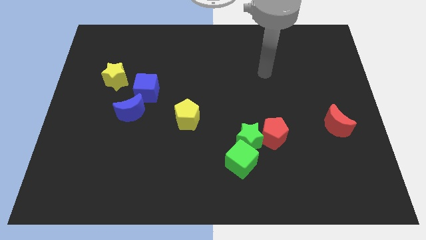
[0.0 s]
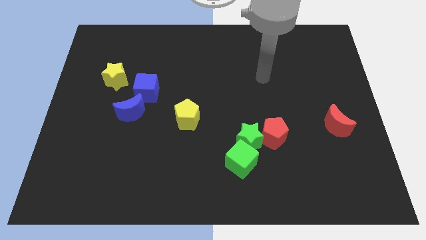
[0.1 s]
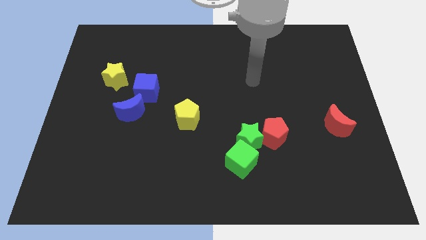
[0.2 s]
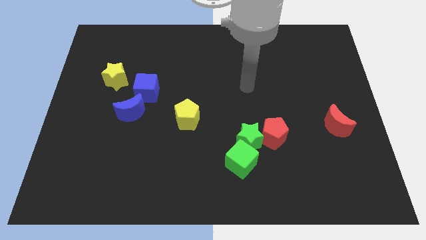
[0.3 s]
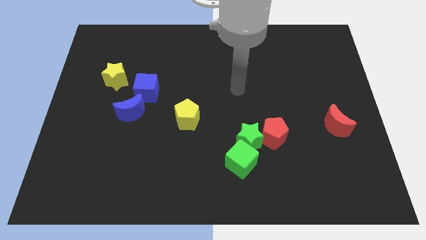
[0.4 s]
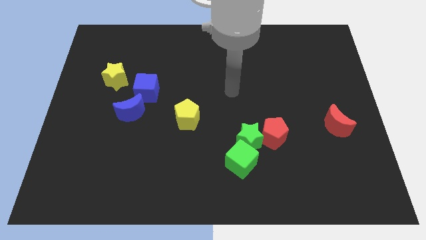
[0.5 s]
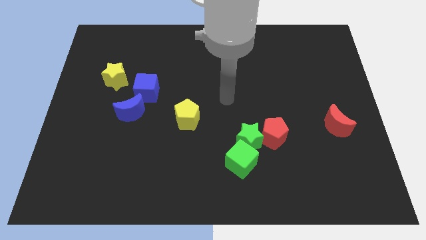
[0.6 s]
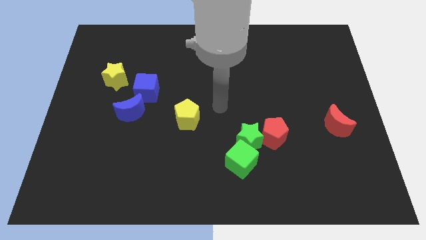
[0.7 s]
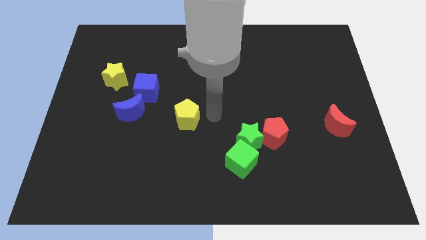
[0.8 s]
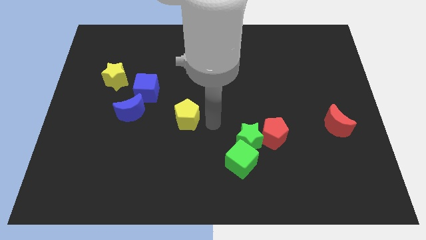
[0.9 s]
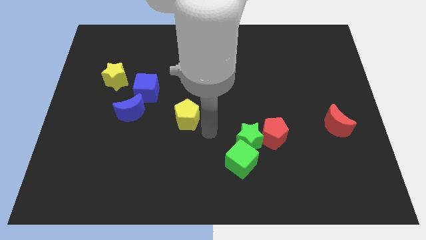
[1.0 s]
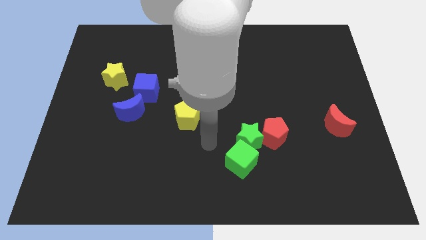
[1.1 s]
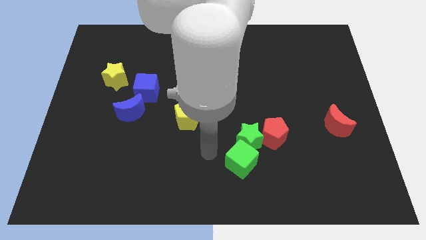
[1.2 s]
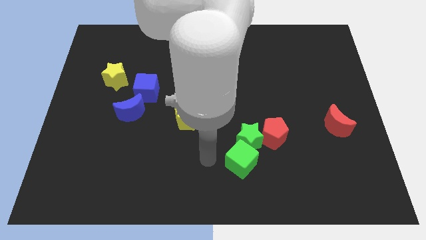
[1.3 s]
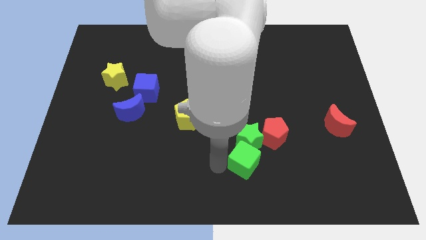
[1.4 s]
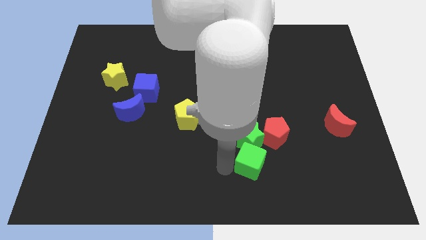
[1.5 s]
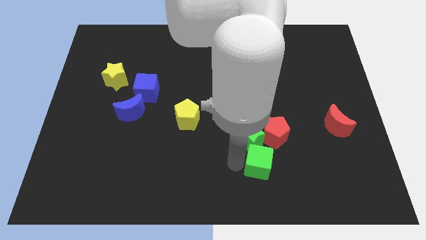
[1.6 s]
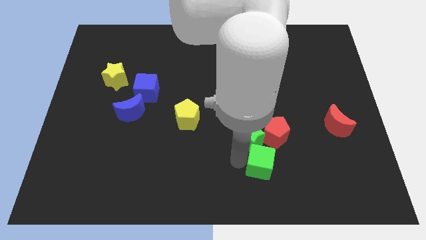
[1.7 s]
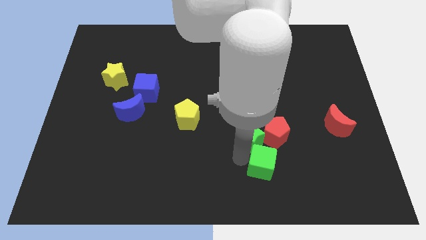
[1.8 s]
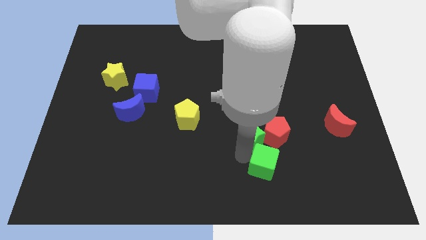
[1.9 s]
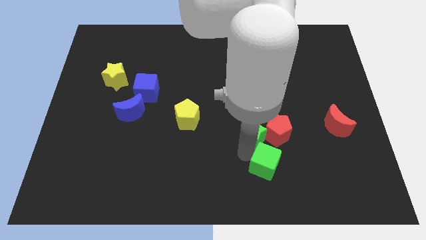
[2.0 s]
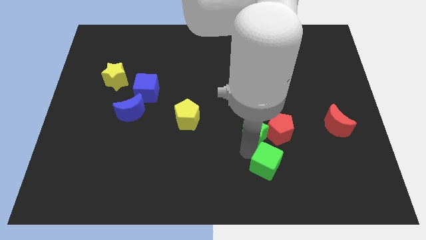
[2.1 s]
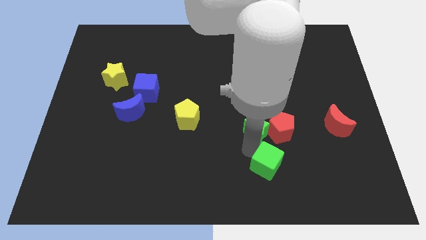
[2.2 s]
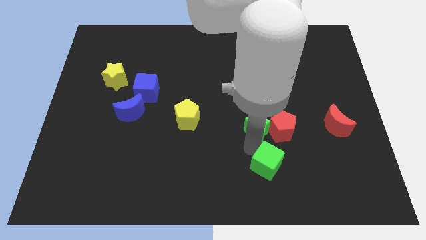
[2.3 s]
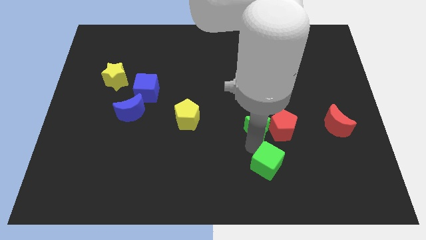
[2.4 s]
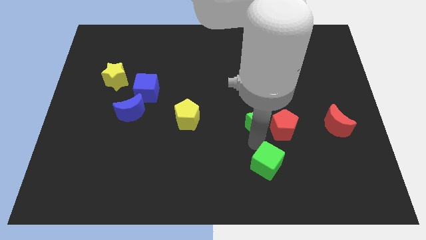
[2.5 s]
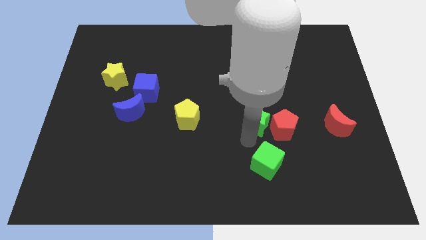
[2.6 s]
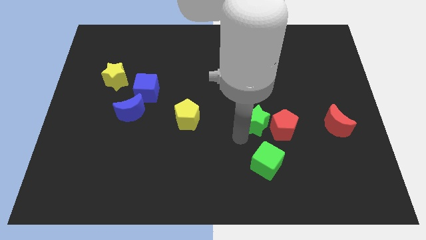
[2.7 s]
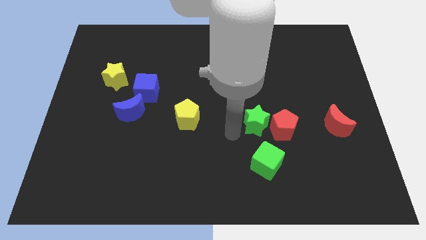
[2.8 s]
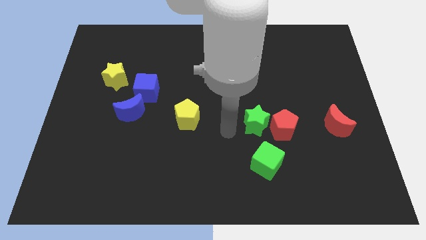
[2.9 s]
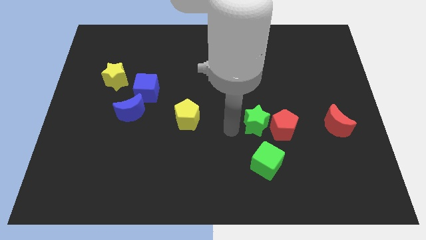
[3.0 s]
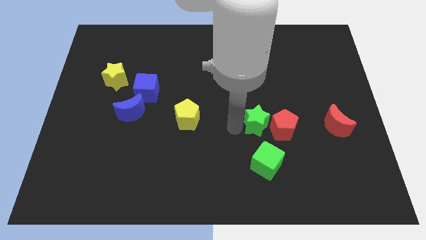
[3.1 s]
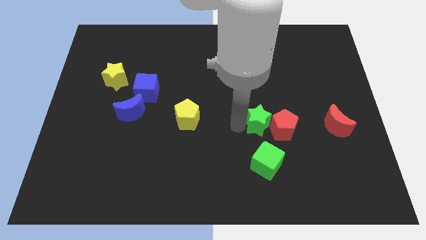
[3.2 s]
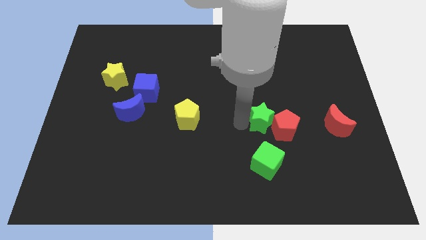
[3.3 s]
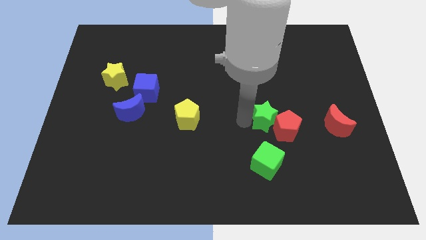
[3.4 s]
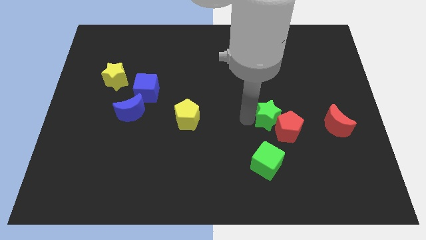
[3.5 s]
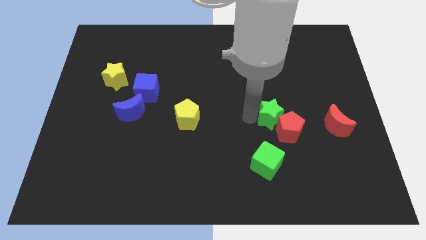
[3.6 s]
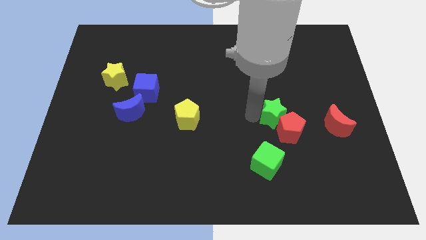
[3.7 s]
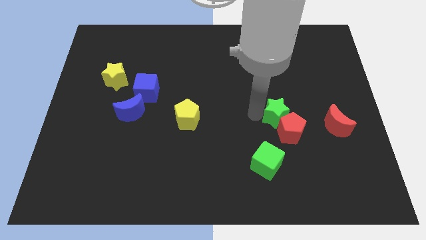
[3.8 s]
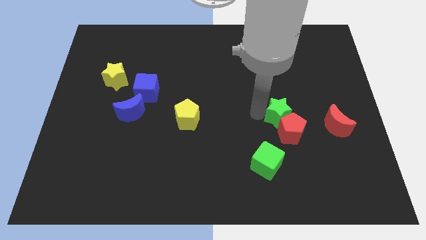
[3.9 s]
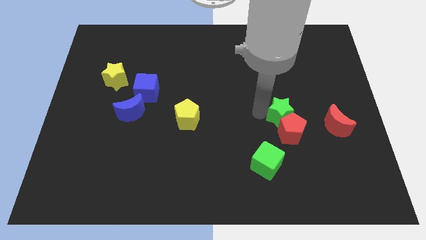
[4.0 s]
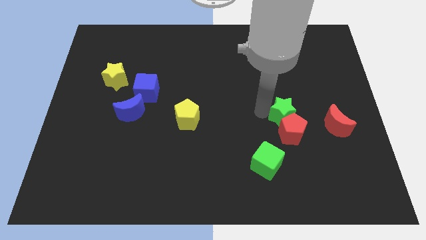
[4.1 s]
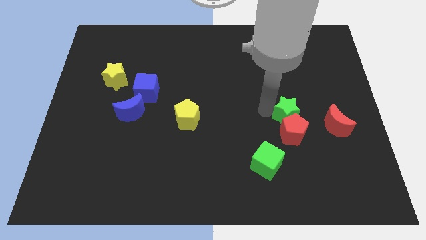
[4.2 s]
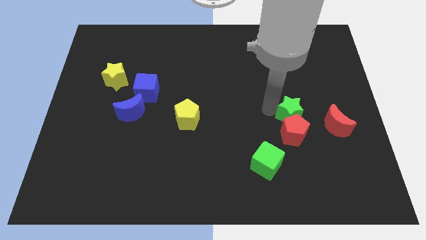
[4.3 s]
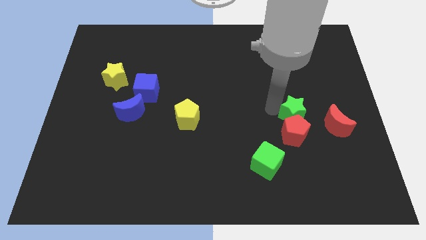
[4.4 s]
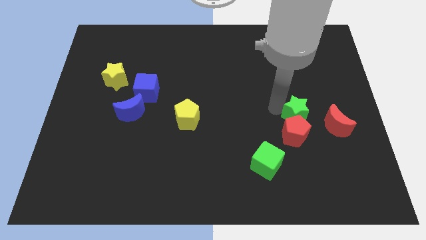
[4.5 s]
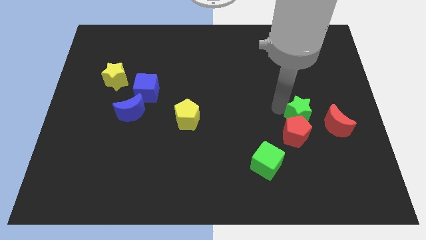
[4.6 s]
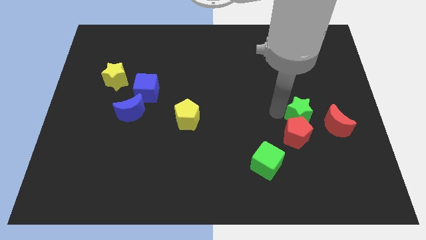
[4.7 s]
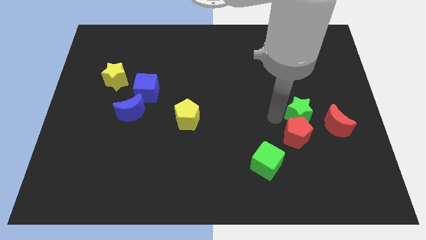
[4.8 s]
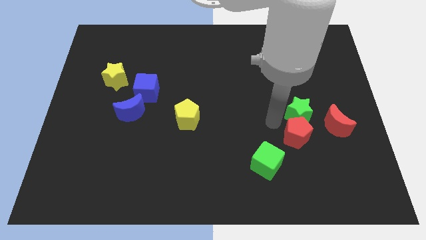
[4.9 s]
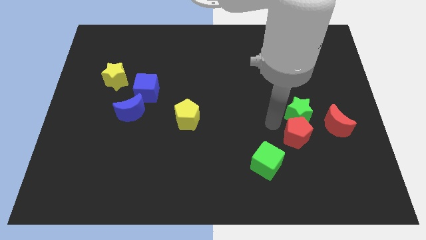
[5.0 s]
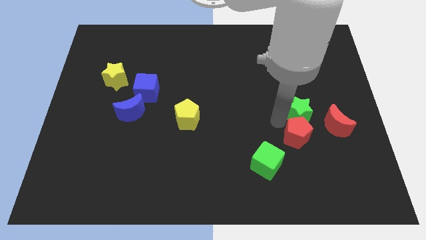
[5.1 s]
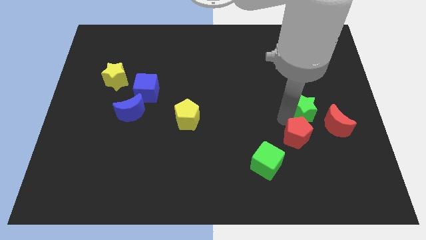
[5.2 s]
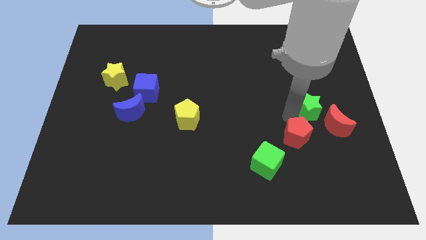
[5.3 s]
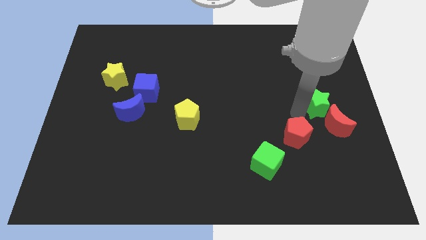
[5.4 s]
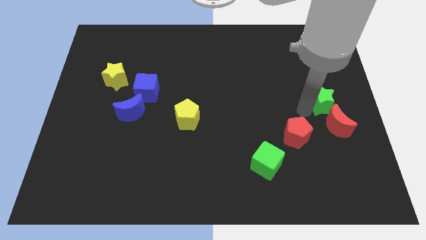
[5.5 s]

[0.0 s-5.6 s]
push the green star to the right side

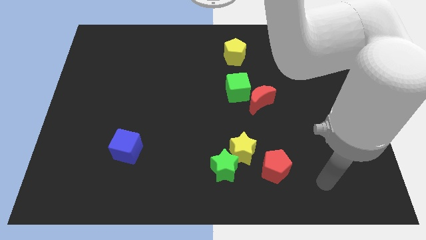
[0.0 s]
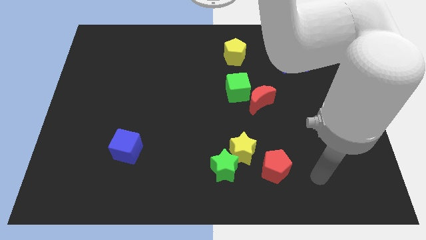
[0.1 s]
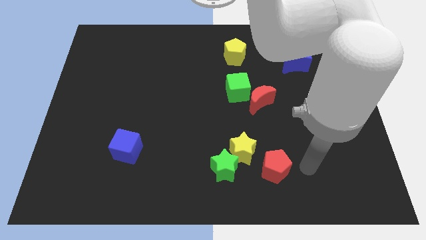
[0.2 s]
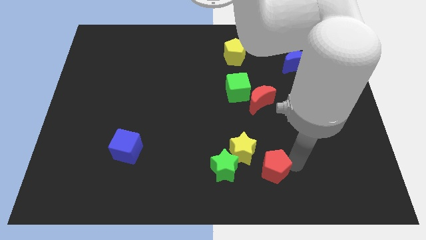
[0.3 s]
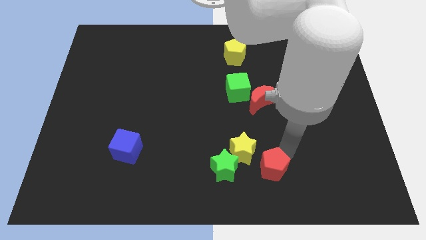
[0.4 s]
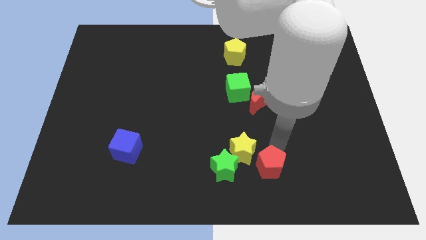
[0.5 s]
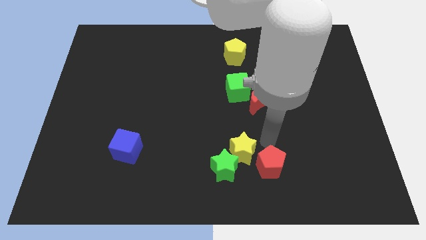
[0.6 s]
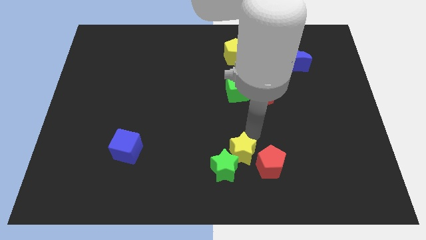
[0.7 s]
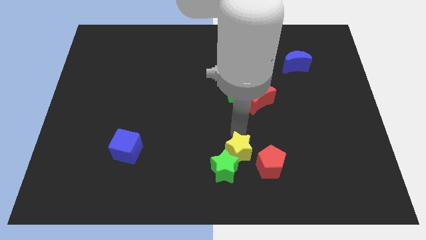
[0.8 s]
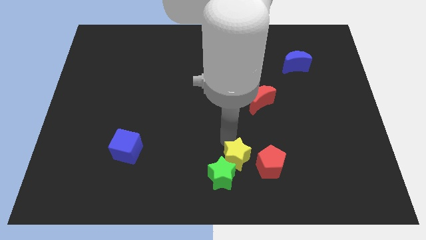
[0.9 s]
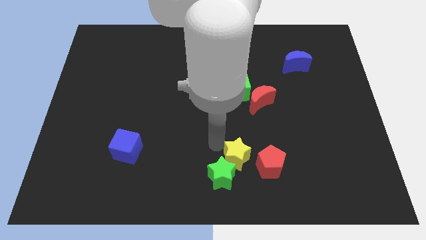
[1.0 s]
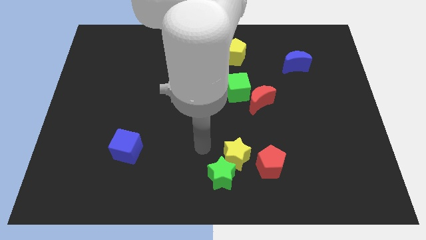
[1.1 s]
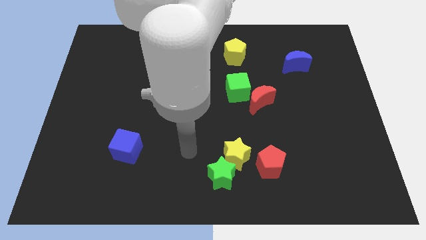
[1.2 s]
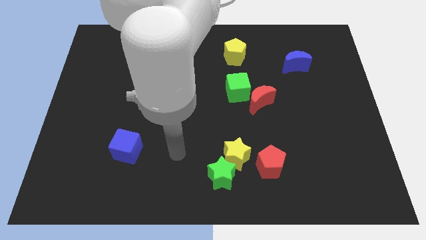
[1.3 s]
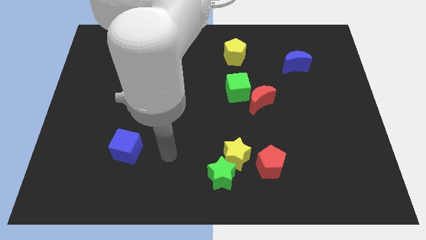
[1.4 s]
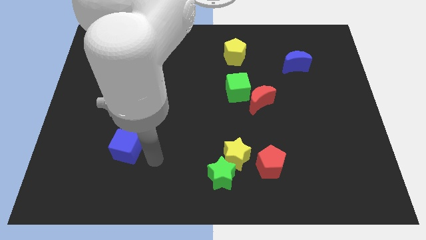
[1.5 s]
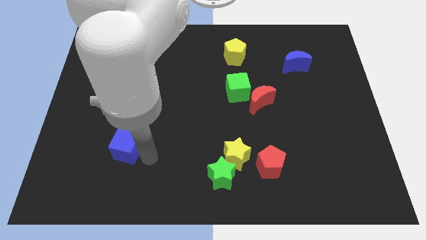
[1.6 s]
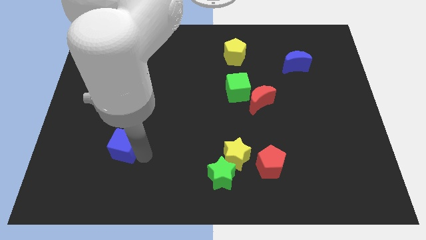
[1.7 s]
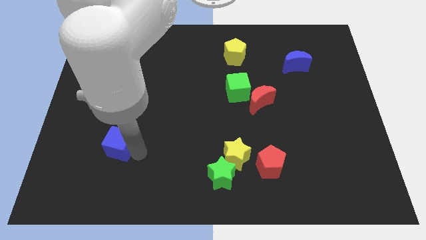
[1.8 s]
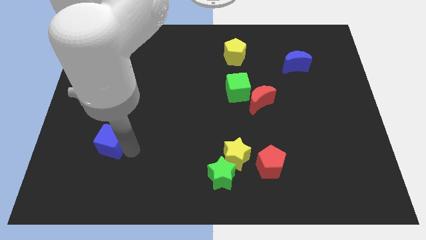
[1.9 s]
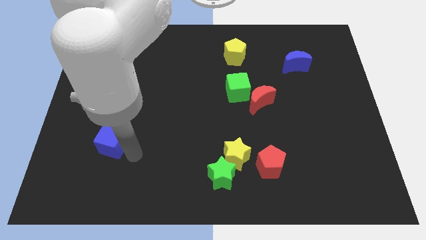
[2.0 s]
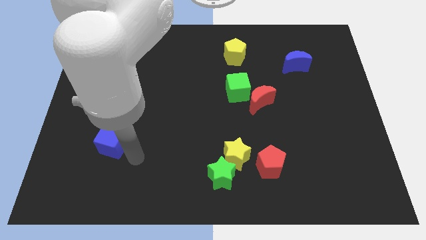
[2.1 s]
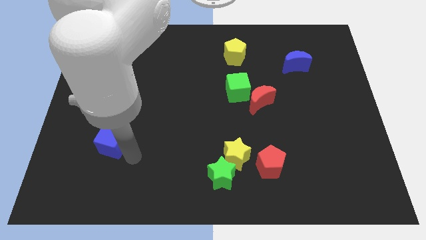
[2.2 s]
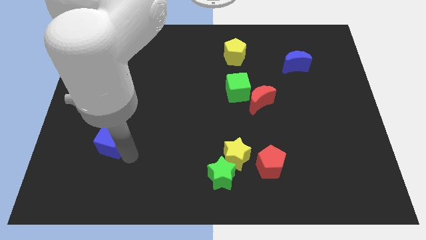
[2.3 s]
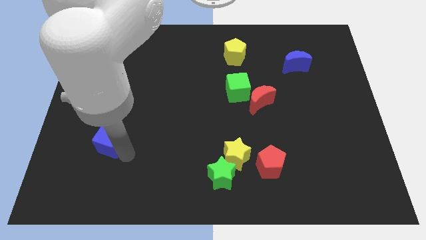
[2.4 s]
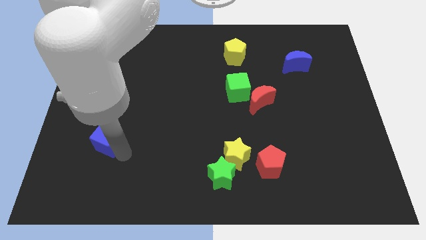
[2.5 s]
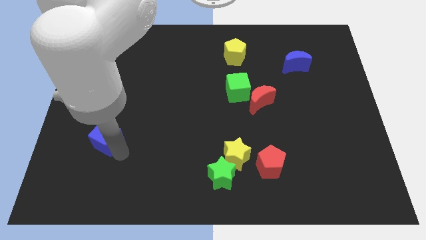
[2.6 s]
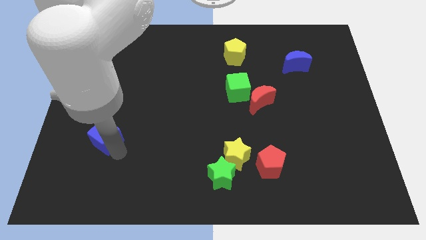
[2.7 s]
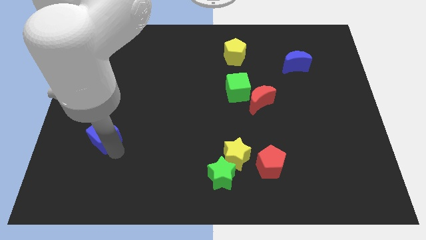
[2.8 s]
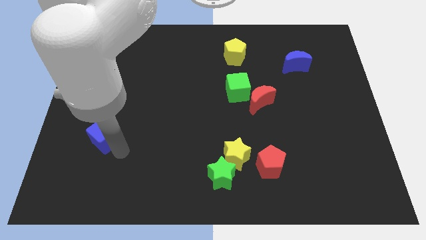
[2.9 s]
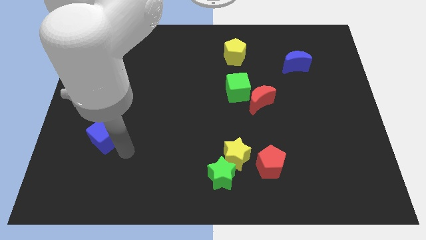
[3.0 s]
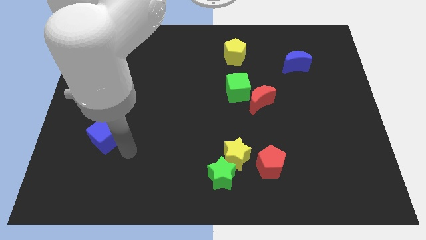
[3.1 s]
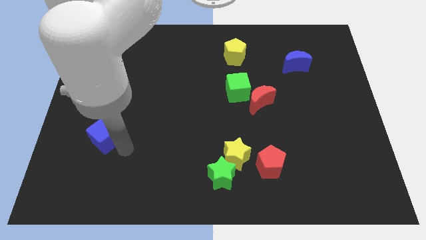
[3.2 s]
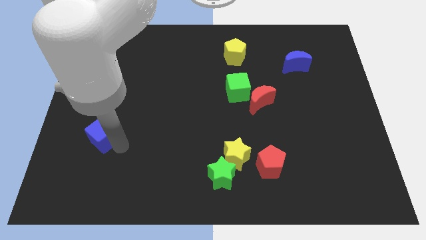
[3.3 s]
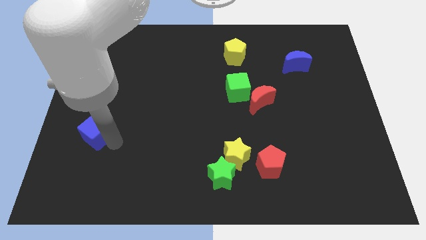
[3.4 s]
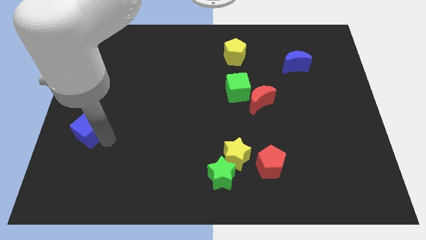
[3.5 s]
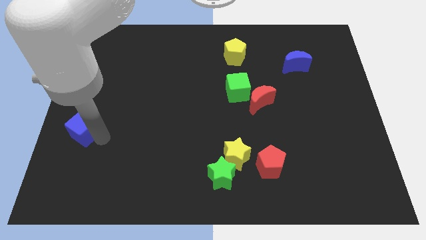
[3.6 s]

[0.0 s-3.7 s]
push the blue cube to the left side of the board
